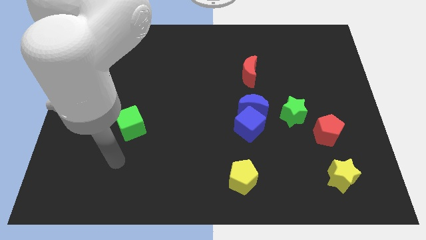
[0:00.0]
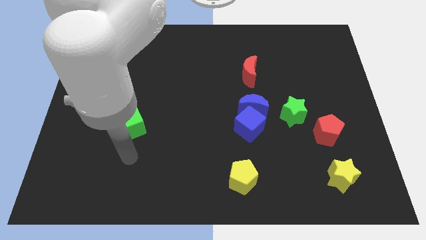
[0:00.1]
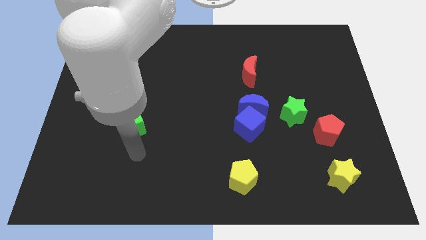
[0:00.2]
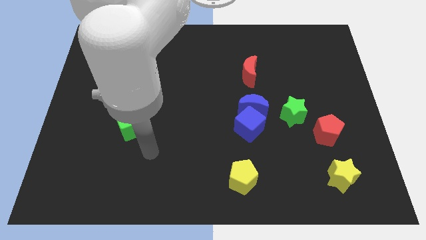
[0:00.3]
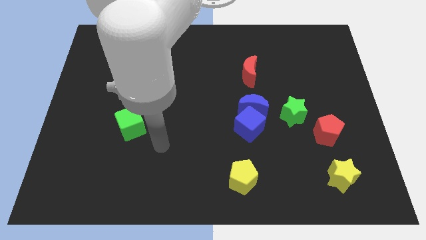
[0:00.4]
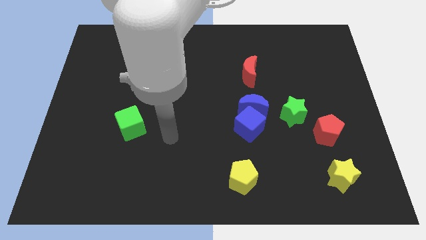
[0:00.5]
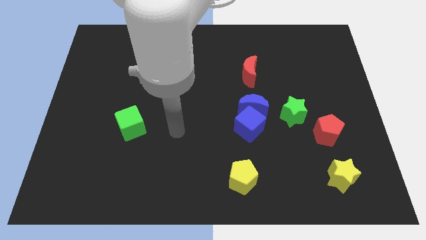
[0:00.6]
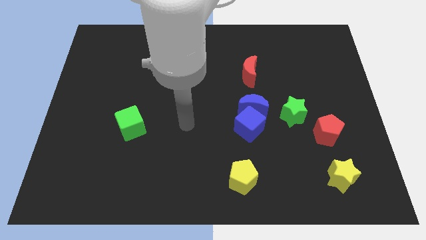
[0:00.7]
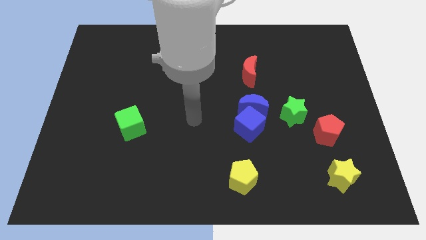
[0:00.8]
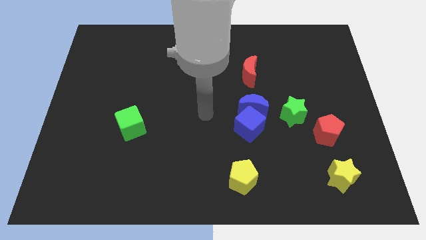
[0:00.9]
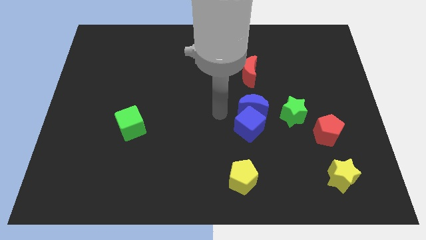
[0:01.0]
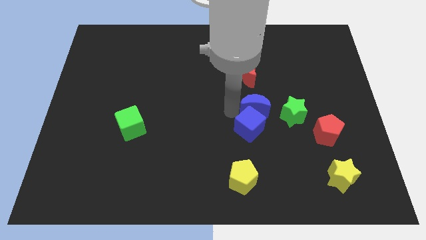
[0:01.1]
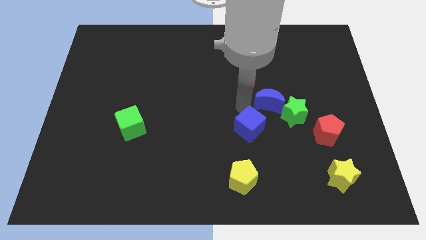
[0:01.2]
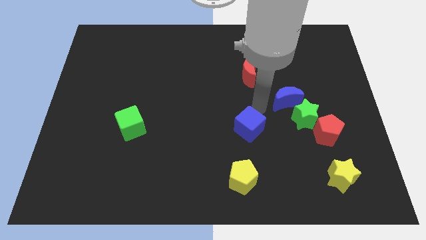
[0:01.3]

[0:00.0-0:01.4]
move the blue cube away from the blue moon

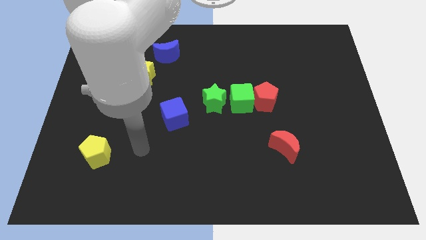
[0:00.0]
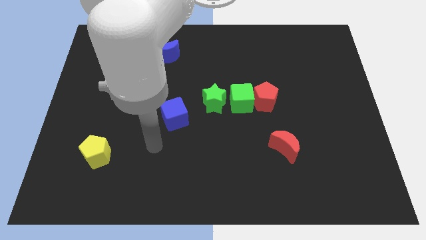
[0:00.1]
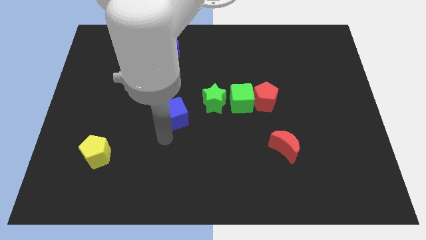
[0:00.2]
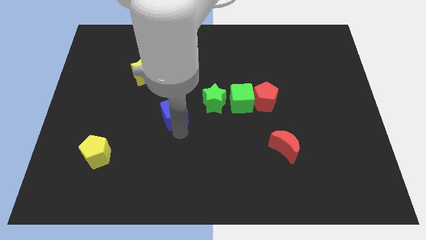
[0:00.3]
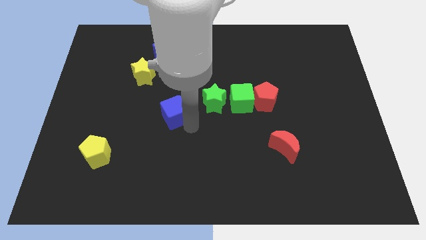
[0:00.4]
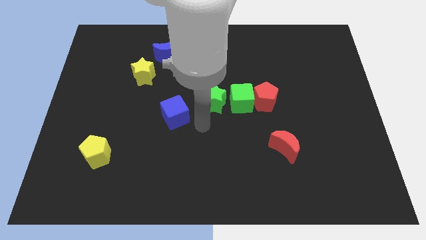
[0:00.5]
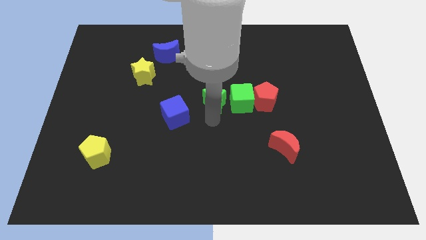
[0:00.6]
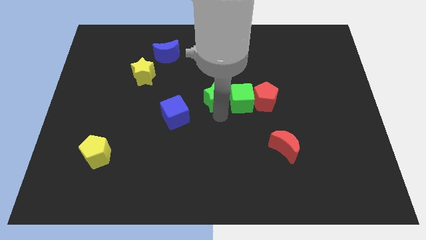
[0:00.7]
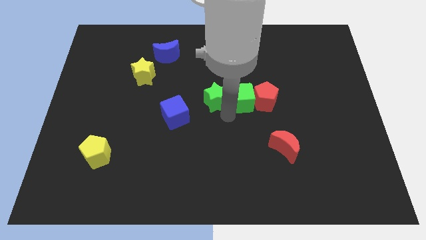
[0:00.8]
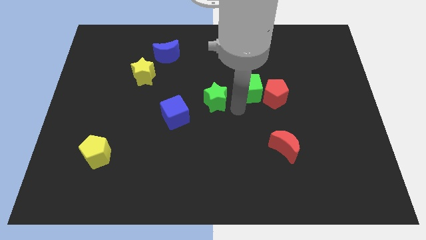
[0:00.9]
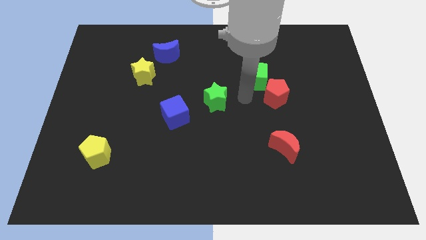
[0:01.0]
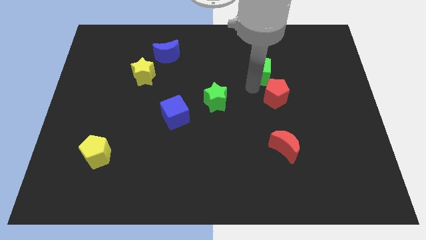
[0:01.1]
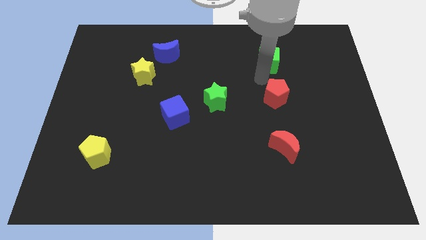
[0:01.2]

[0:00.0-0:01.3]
move the red pentagon away from the green cube

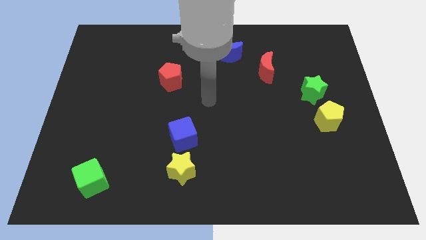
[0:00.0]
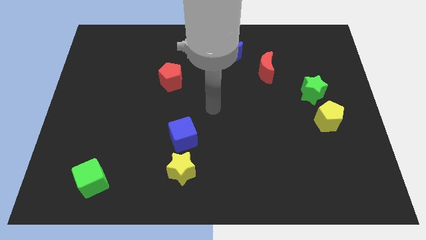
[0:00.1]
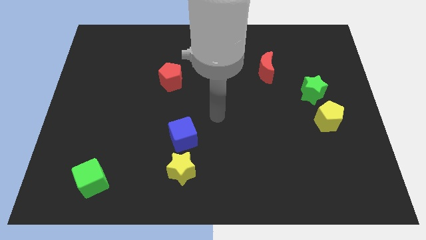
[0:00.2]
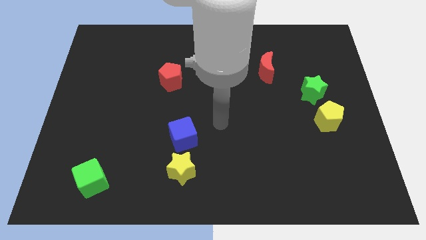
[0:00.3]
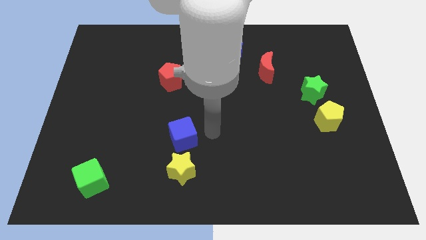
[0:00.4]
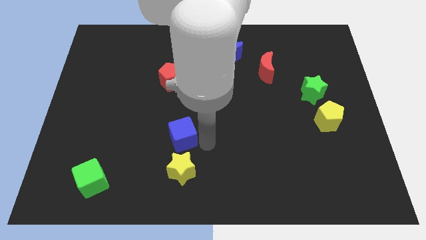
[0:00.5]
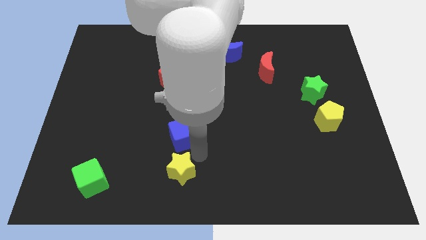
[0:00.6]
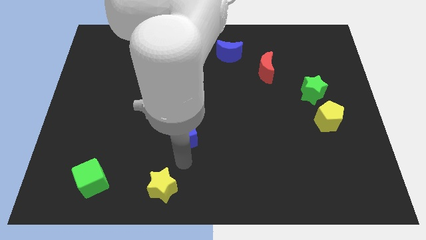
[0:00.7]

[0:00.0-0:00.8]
separate the blue cube from the yellow star

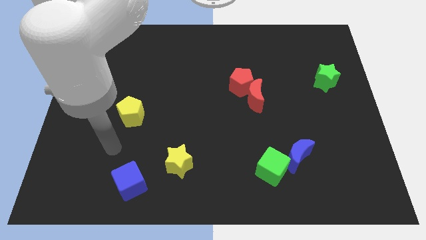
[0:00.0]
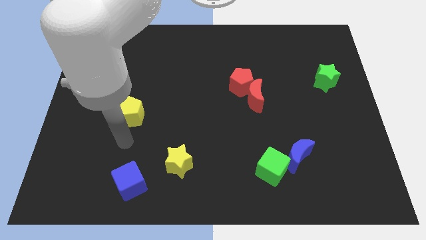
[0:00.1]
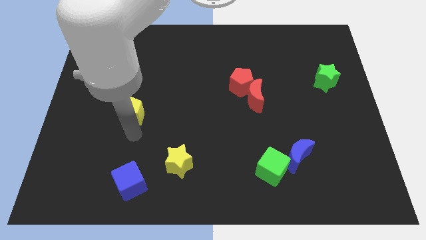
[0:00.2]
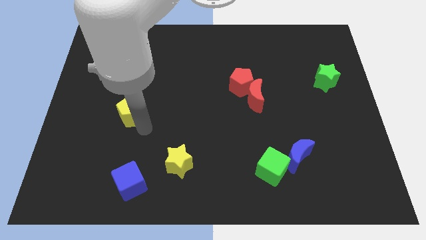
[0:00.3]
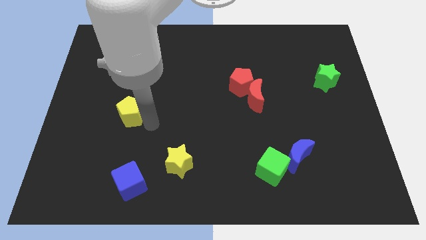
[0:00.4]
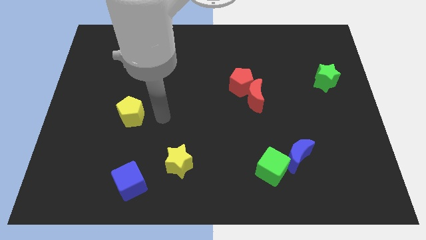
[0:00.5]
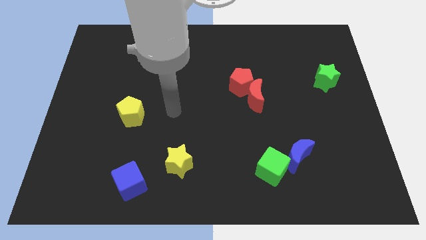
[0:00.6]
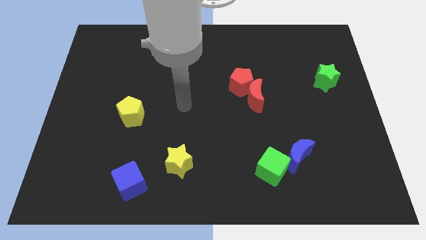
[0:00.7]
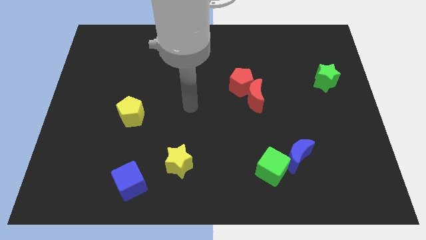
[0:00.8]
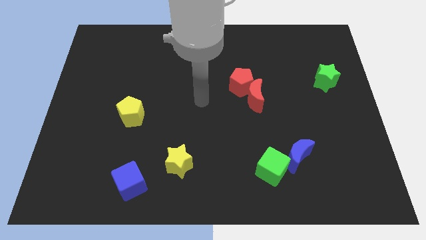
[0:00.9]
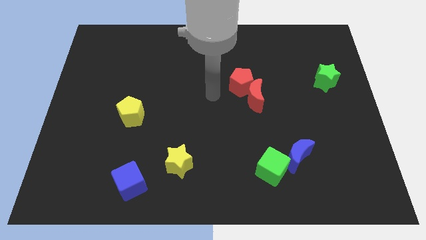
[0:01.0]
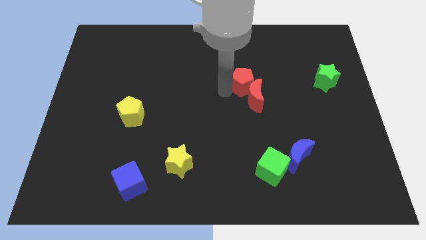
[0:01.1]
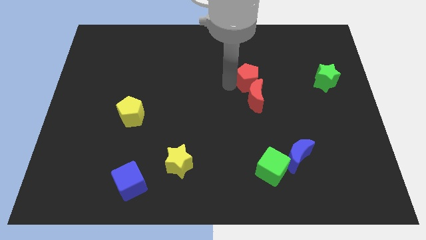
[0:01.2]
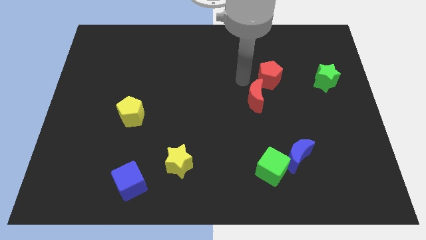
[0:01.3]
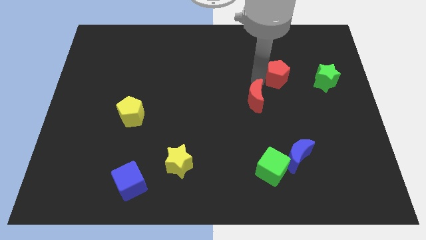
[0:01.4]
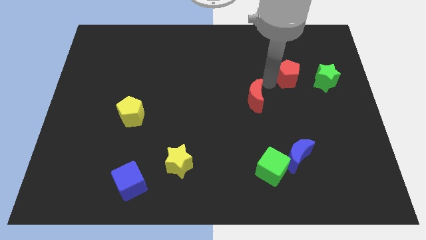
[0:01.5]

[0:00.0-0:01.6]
move the red moon away from the red pentagon

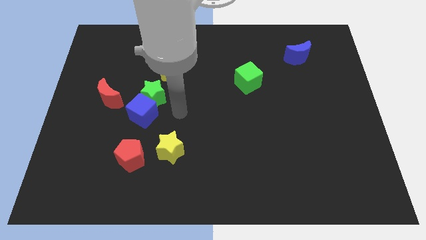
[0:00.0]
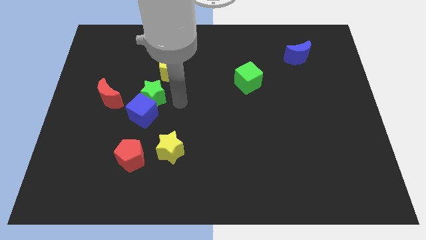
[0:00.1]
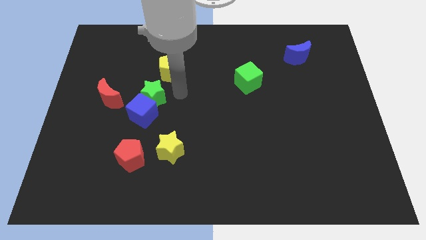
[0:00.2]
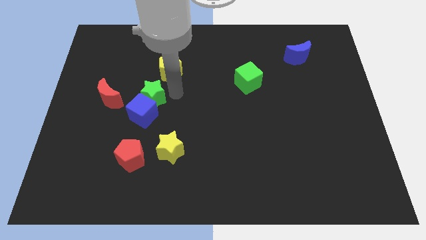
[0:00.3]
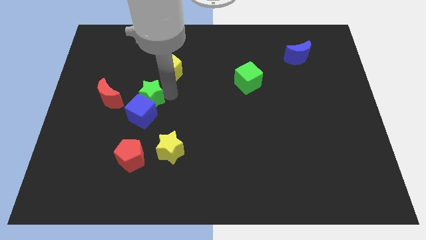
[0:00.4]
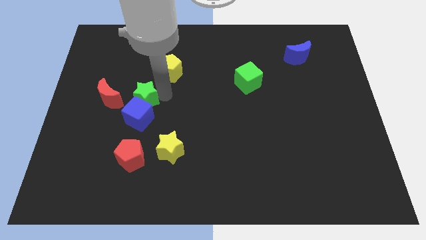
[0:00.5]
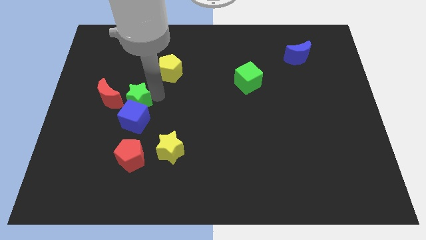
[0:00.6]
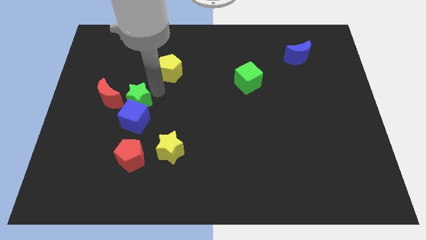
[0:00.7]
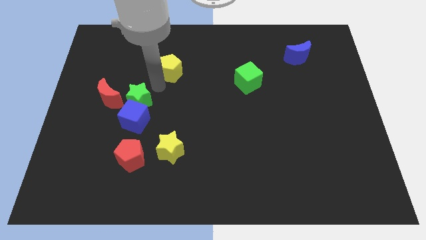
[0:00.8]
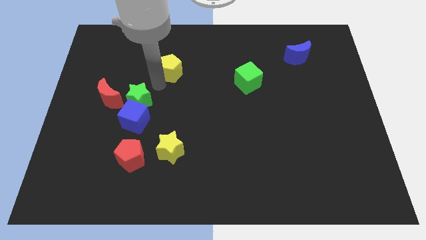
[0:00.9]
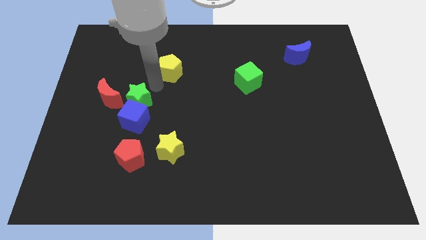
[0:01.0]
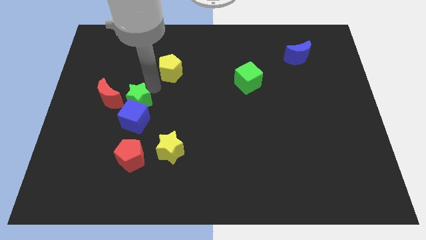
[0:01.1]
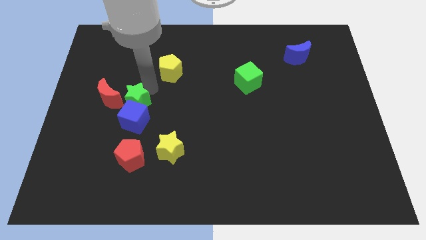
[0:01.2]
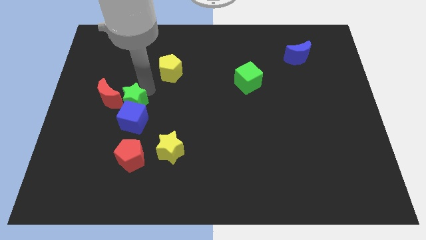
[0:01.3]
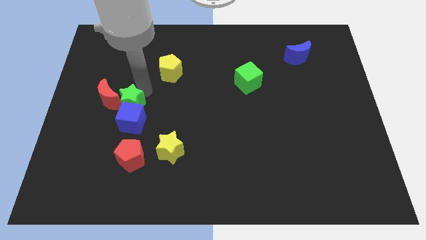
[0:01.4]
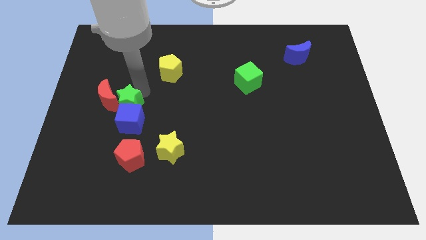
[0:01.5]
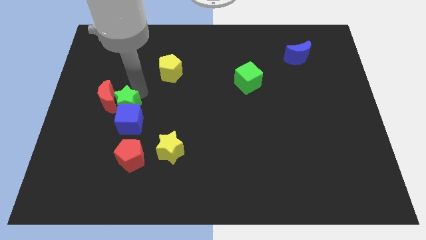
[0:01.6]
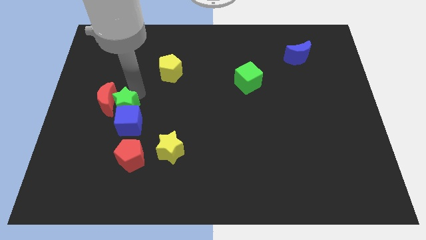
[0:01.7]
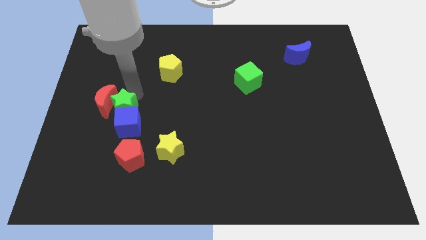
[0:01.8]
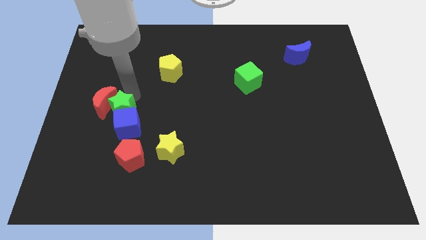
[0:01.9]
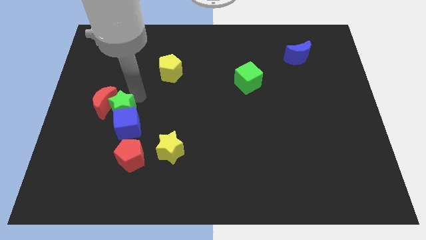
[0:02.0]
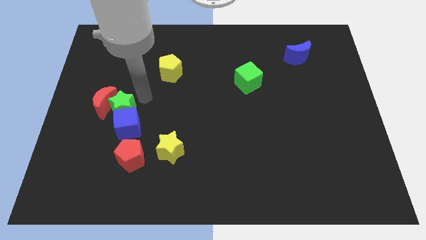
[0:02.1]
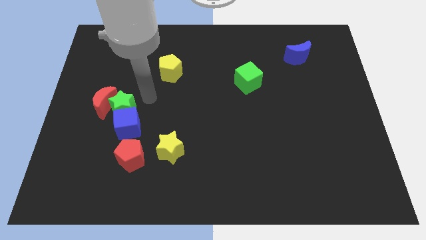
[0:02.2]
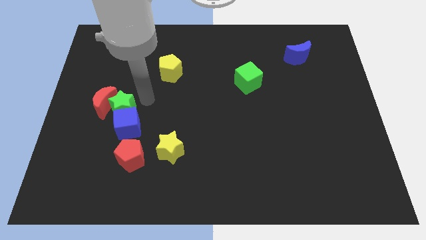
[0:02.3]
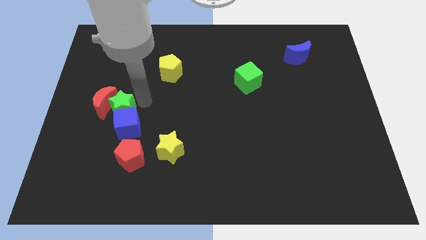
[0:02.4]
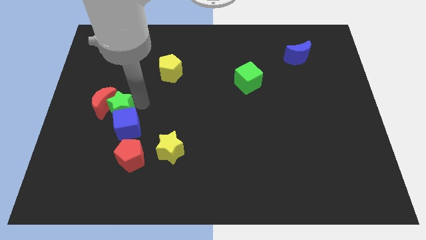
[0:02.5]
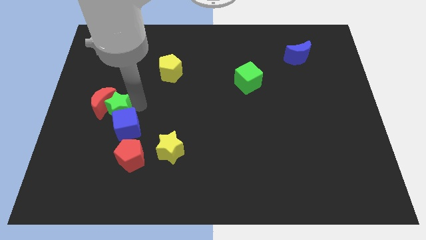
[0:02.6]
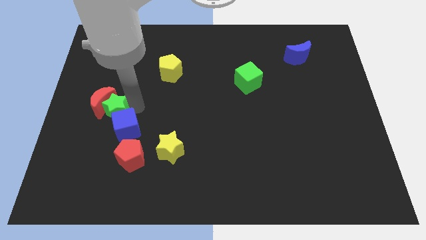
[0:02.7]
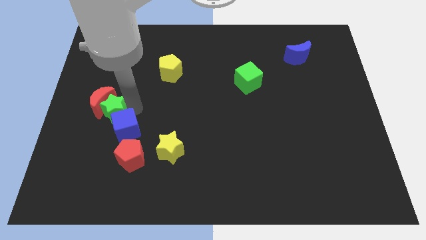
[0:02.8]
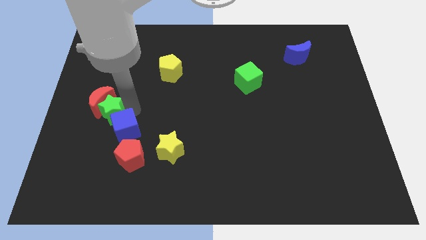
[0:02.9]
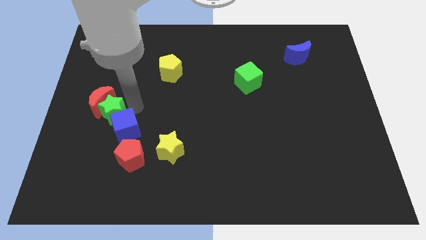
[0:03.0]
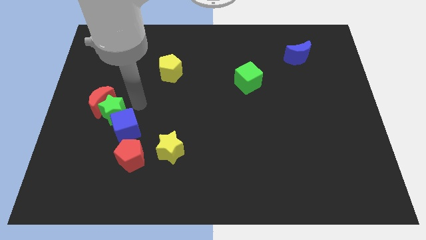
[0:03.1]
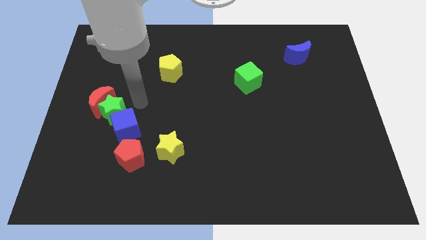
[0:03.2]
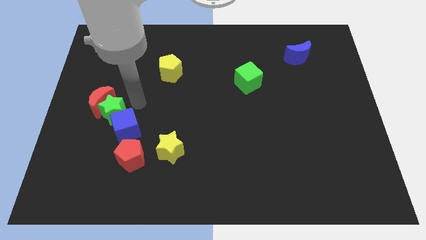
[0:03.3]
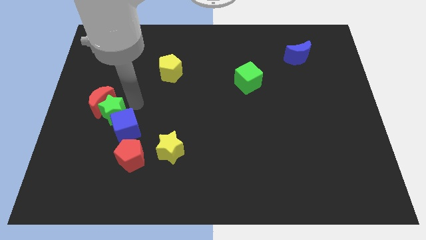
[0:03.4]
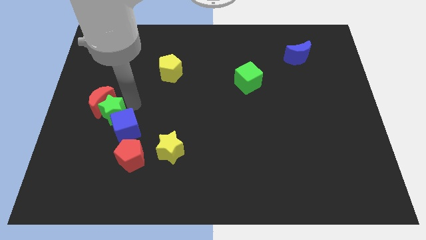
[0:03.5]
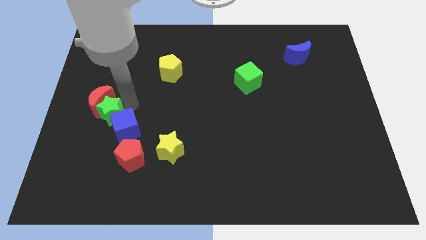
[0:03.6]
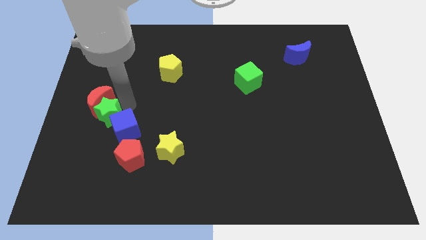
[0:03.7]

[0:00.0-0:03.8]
separate the green star from the blue cube and yellow pentagon

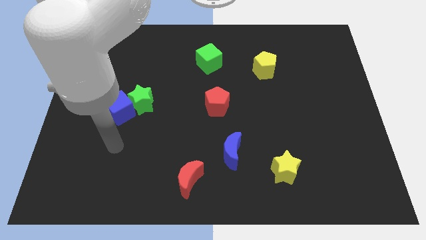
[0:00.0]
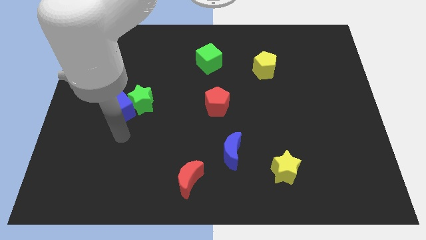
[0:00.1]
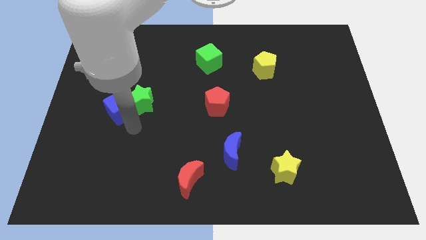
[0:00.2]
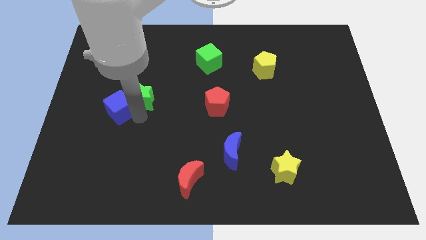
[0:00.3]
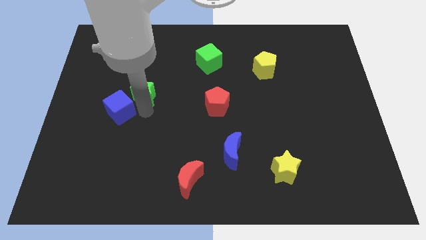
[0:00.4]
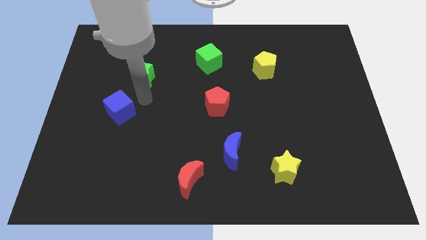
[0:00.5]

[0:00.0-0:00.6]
move the blue cube away from the green star
